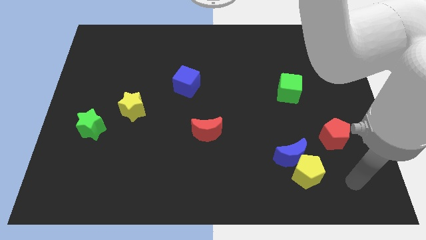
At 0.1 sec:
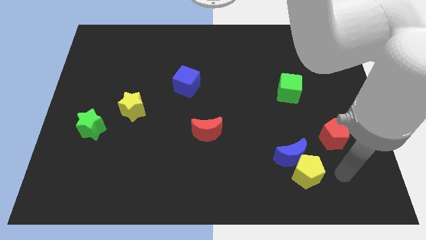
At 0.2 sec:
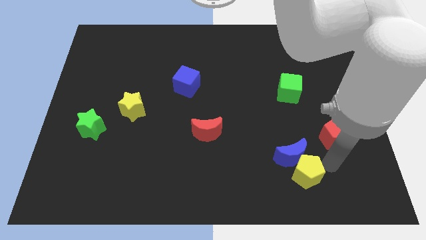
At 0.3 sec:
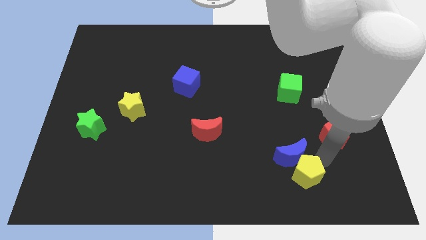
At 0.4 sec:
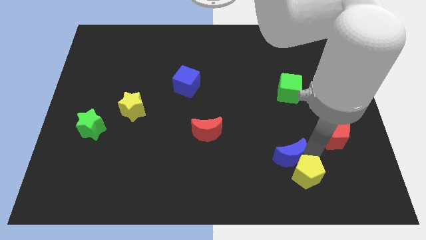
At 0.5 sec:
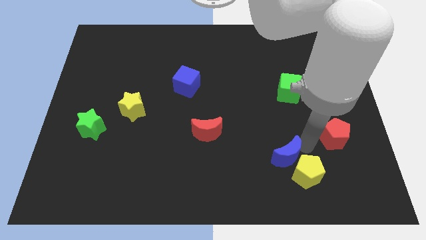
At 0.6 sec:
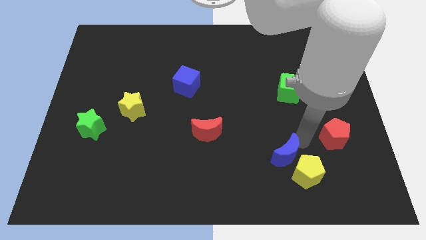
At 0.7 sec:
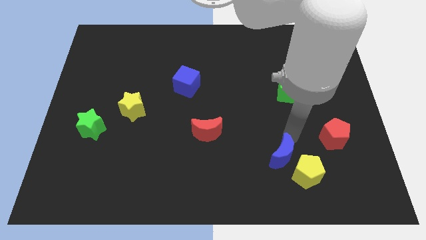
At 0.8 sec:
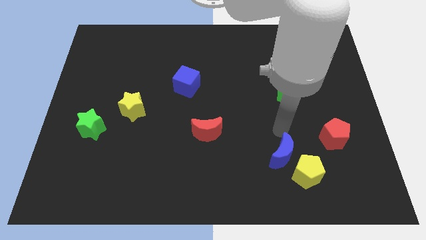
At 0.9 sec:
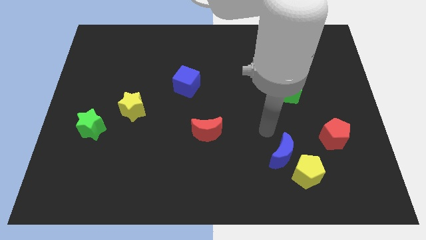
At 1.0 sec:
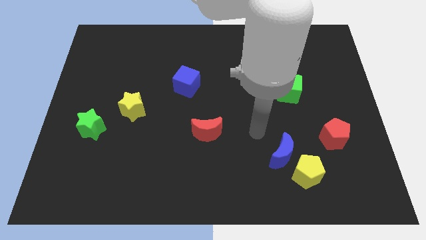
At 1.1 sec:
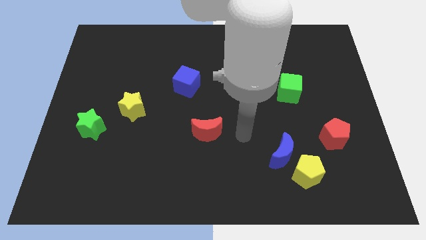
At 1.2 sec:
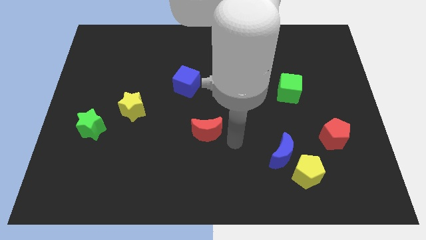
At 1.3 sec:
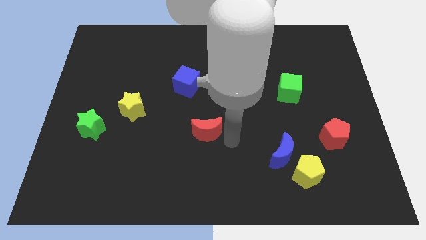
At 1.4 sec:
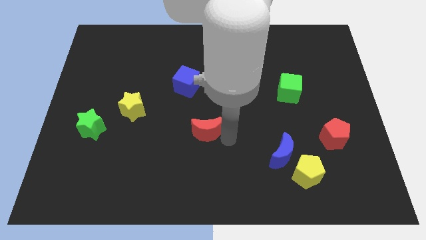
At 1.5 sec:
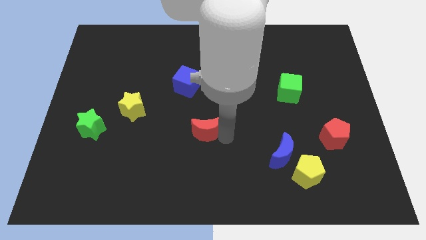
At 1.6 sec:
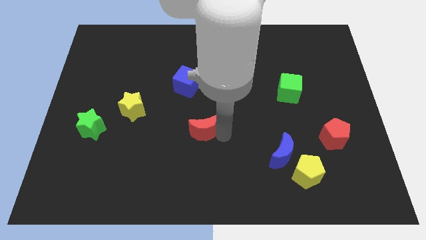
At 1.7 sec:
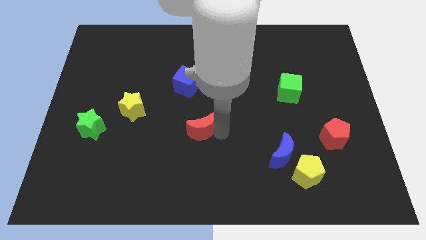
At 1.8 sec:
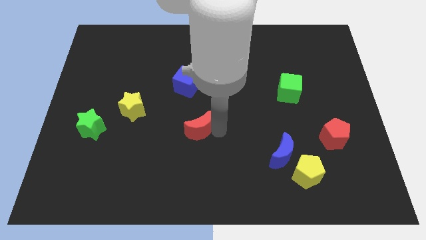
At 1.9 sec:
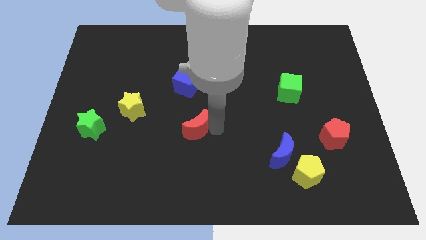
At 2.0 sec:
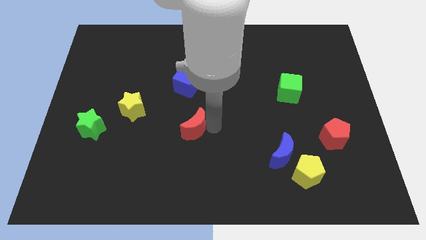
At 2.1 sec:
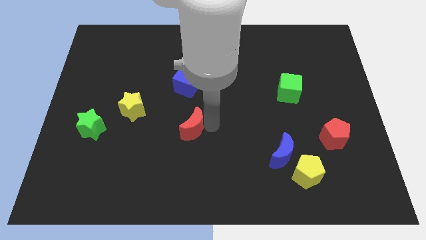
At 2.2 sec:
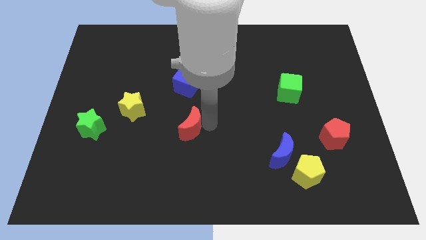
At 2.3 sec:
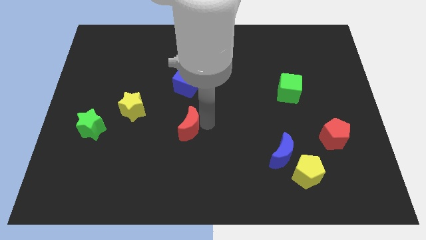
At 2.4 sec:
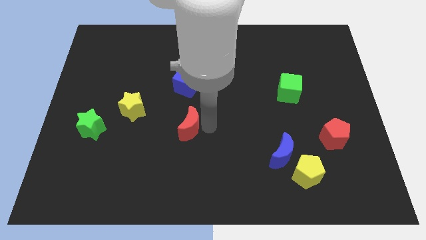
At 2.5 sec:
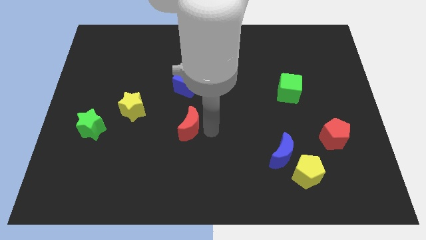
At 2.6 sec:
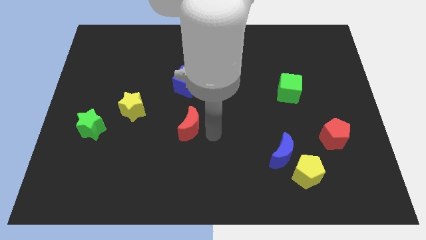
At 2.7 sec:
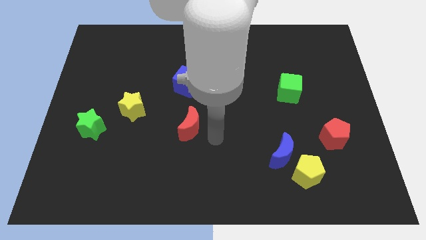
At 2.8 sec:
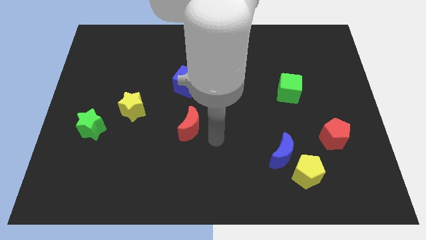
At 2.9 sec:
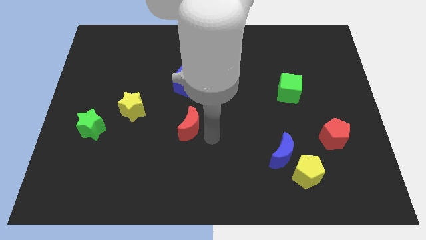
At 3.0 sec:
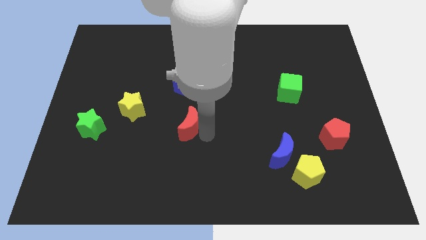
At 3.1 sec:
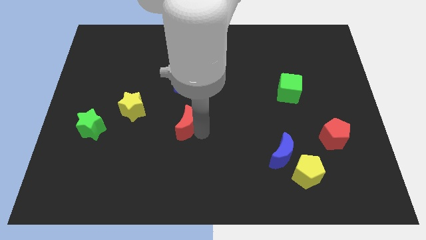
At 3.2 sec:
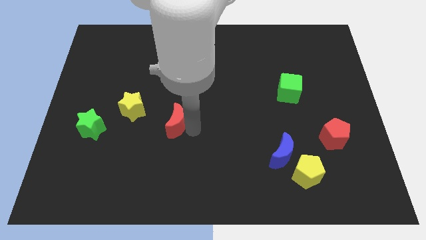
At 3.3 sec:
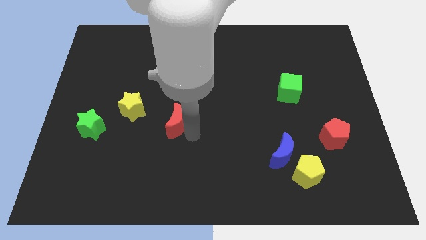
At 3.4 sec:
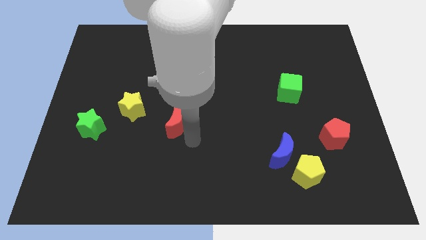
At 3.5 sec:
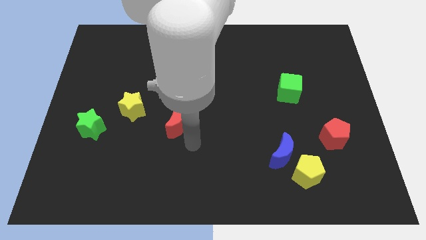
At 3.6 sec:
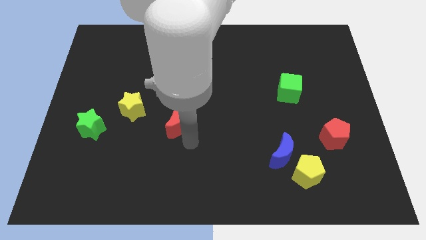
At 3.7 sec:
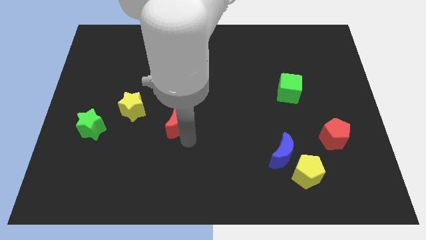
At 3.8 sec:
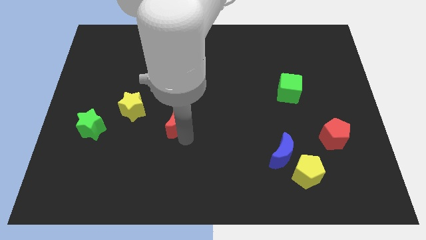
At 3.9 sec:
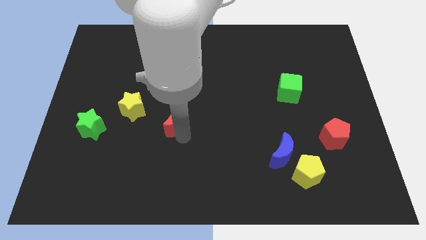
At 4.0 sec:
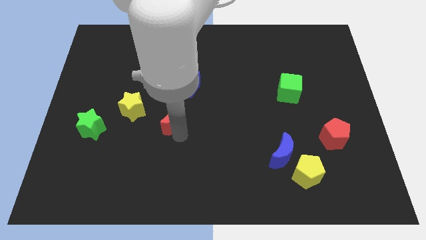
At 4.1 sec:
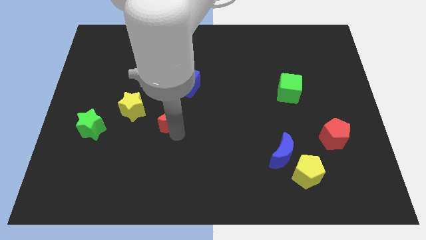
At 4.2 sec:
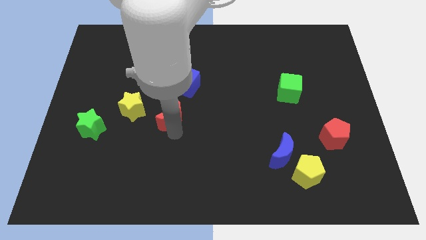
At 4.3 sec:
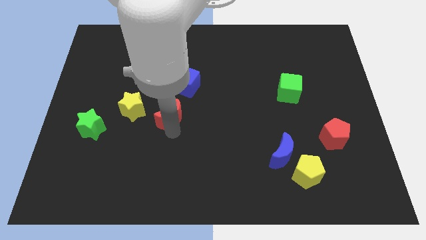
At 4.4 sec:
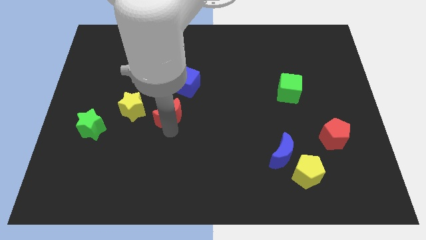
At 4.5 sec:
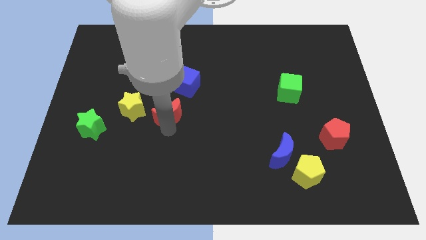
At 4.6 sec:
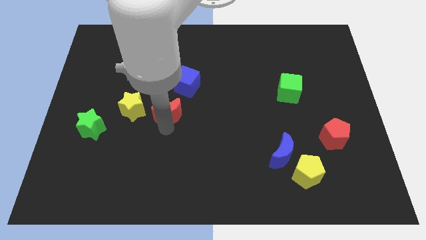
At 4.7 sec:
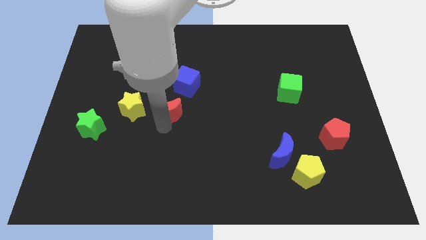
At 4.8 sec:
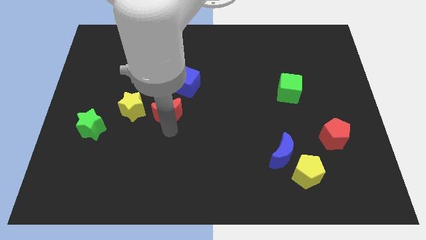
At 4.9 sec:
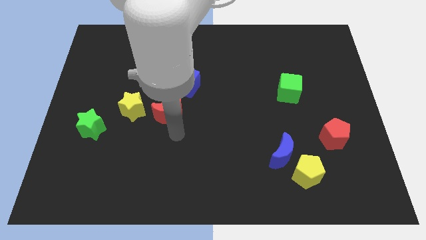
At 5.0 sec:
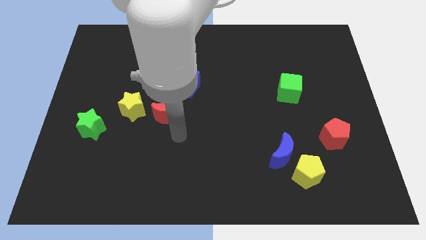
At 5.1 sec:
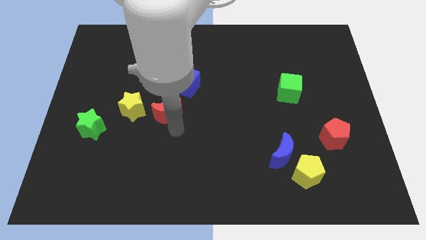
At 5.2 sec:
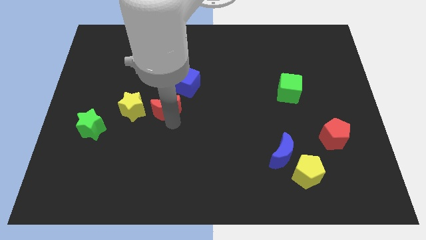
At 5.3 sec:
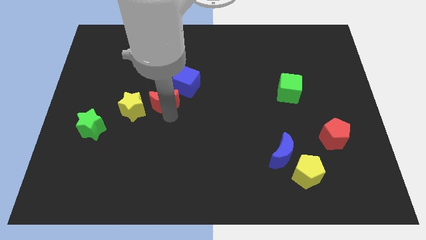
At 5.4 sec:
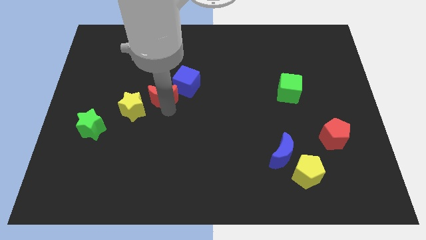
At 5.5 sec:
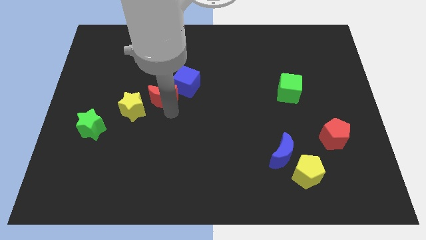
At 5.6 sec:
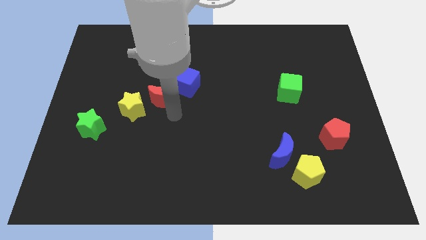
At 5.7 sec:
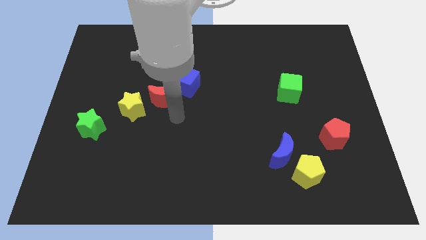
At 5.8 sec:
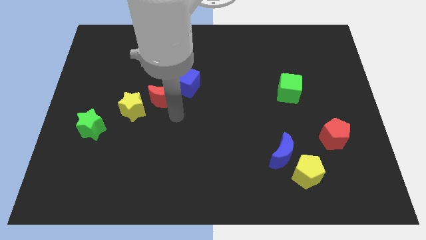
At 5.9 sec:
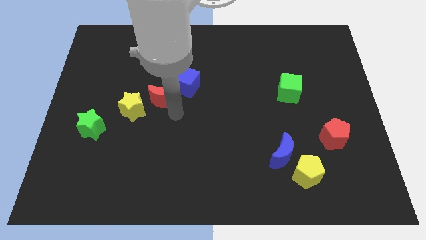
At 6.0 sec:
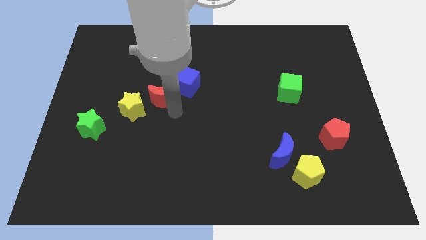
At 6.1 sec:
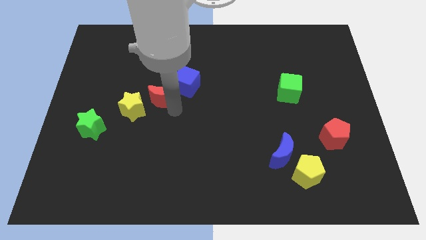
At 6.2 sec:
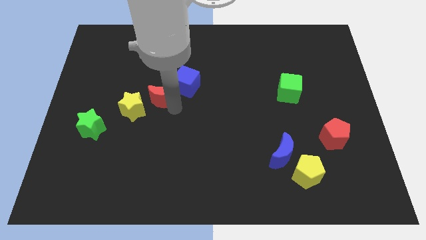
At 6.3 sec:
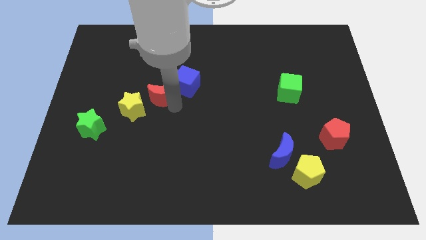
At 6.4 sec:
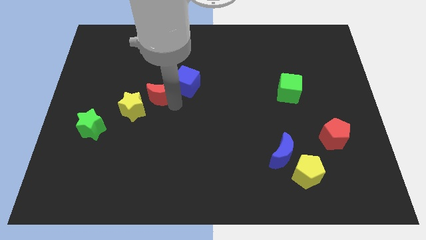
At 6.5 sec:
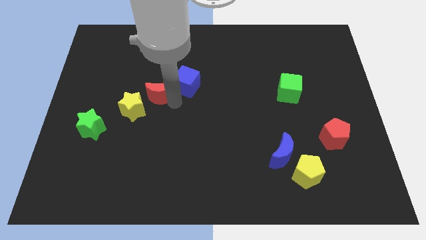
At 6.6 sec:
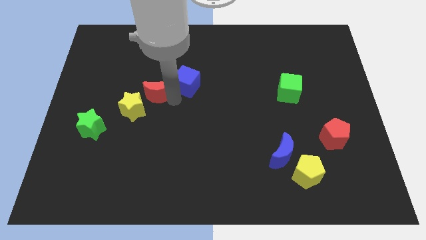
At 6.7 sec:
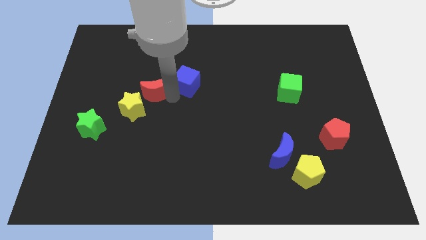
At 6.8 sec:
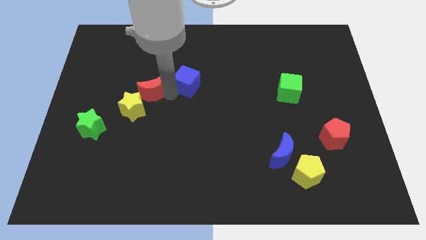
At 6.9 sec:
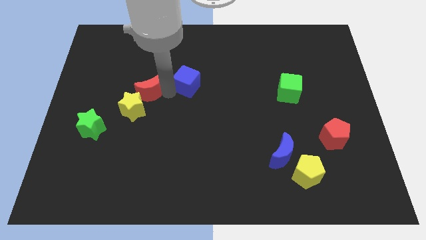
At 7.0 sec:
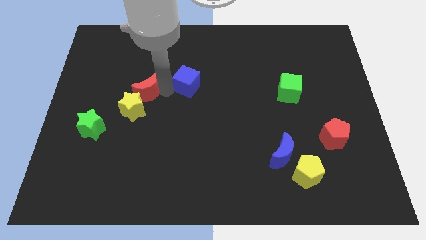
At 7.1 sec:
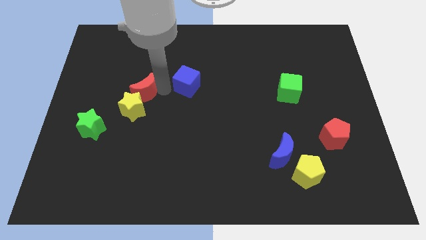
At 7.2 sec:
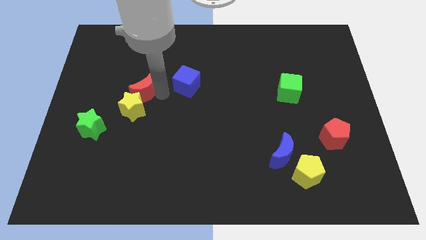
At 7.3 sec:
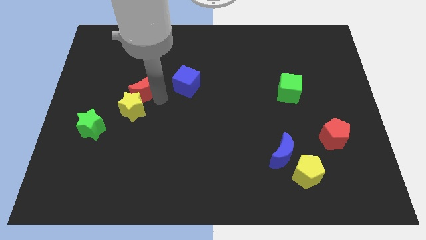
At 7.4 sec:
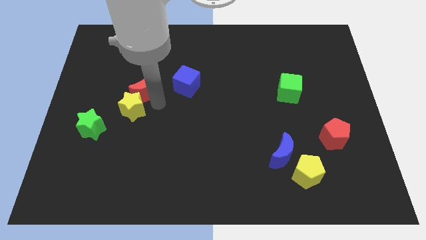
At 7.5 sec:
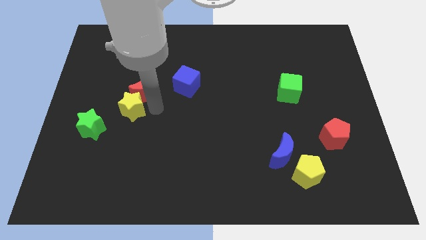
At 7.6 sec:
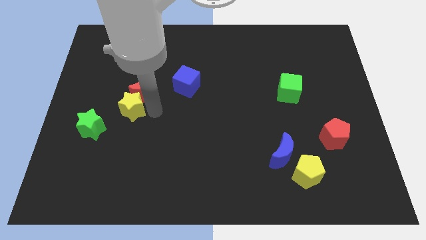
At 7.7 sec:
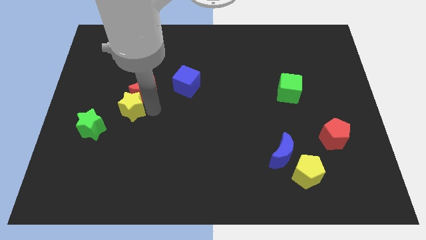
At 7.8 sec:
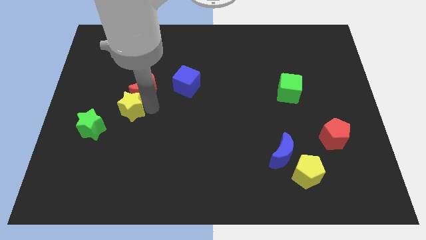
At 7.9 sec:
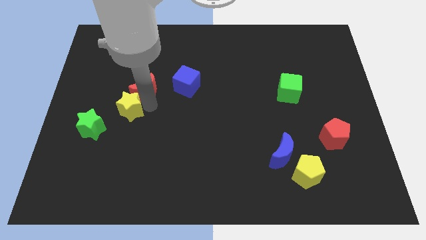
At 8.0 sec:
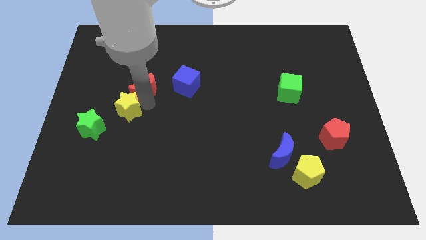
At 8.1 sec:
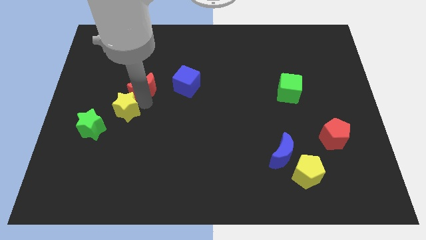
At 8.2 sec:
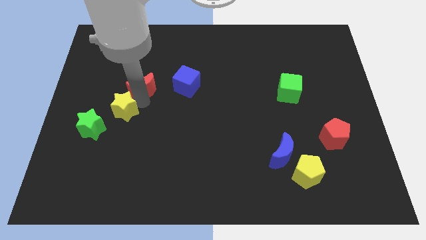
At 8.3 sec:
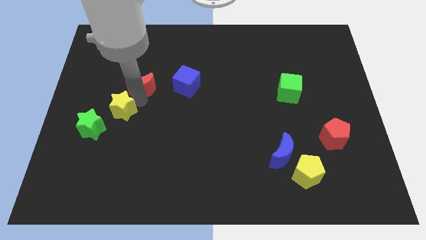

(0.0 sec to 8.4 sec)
move the red moon diagonally up and left
